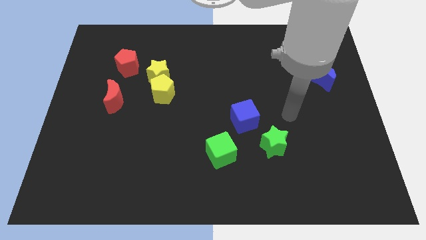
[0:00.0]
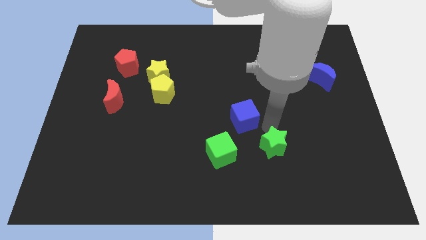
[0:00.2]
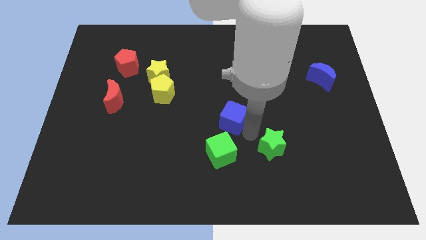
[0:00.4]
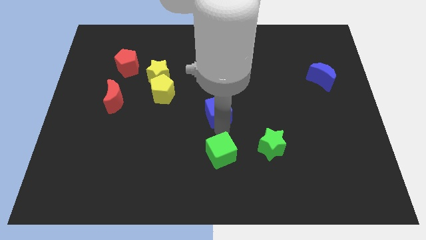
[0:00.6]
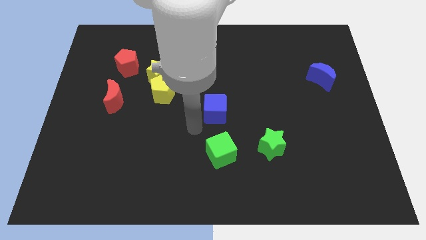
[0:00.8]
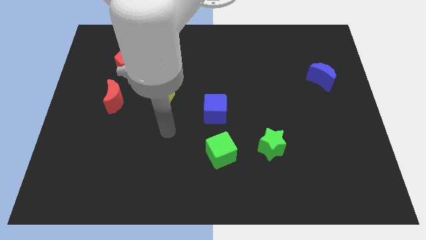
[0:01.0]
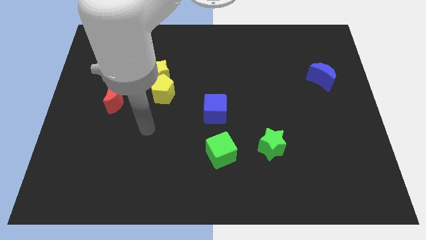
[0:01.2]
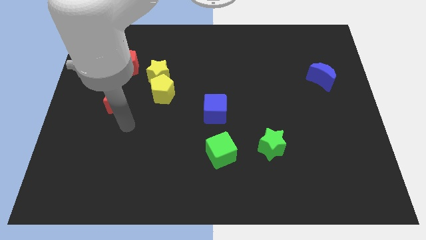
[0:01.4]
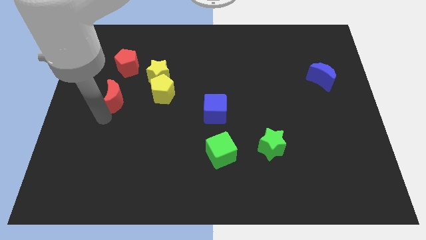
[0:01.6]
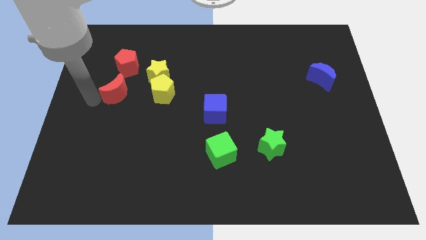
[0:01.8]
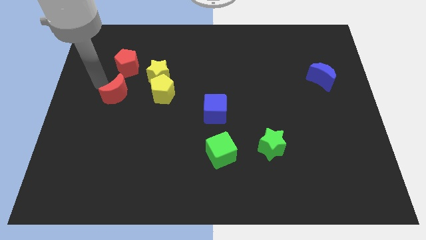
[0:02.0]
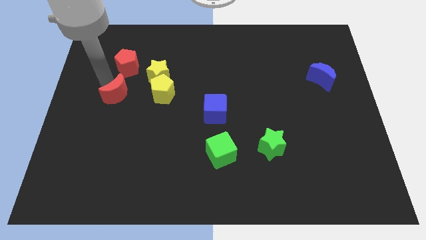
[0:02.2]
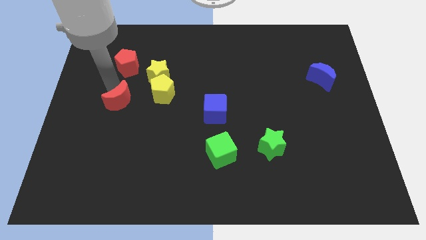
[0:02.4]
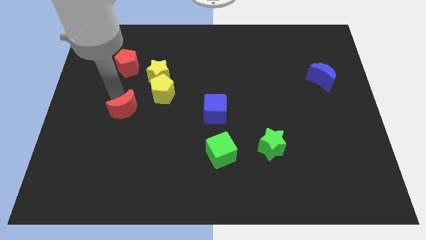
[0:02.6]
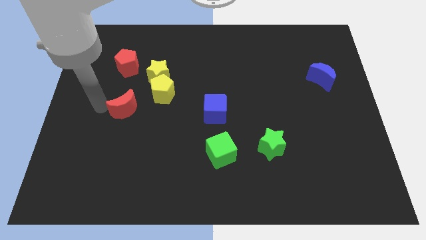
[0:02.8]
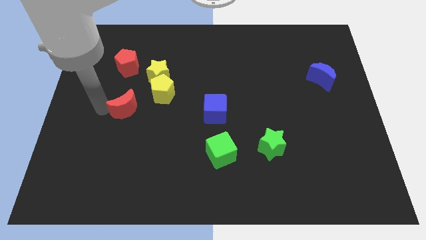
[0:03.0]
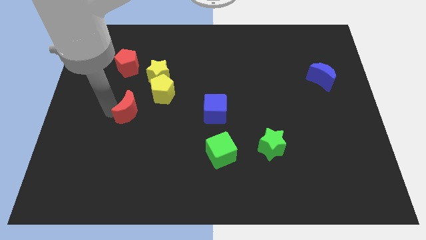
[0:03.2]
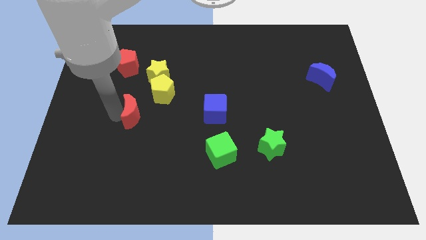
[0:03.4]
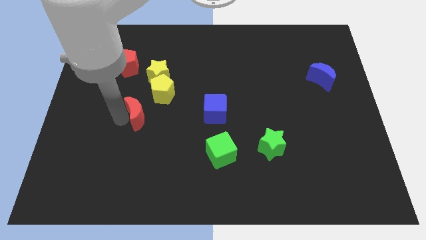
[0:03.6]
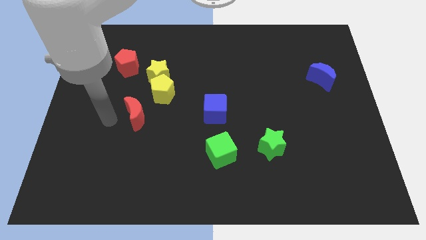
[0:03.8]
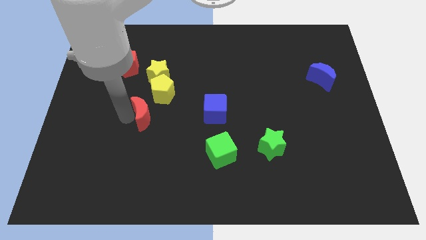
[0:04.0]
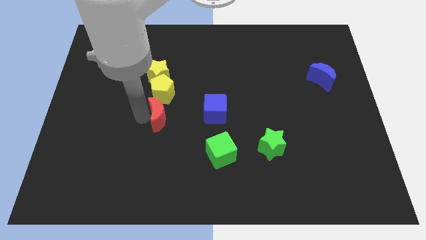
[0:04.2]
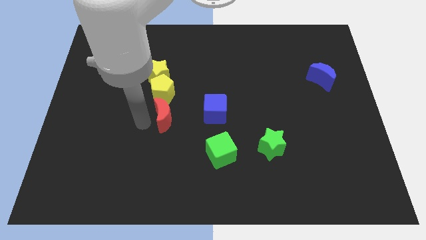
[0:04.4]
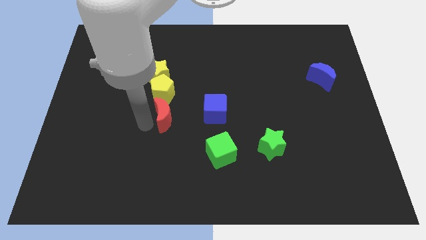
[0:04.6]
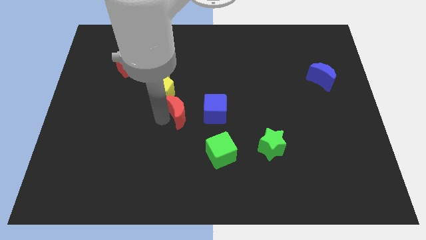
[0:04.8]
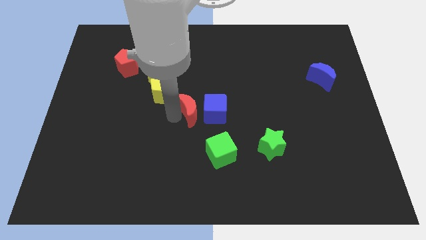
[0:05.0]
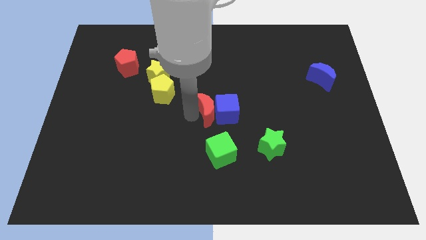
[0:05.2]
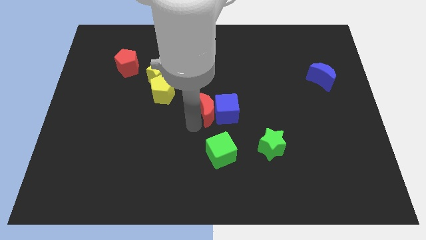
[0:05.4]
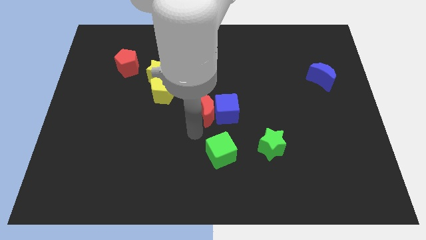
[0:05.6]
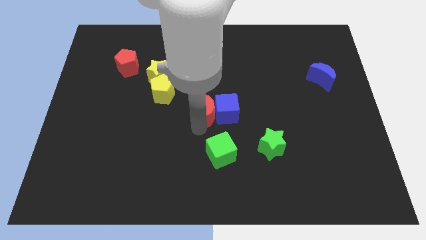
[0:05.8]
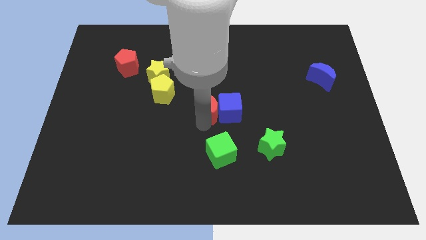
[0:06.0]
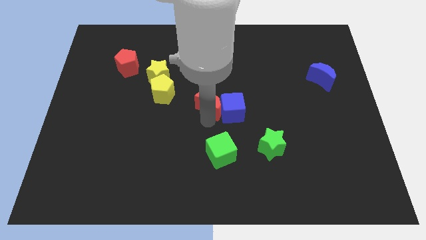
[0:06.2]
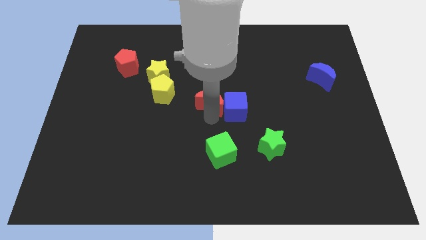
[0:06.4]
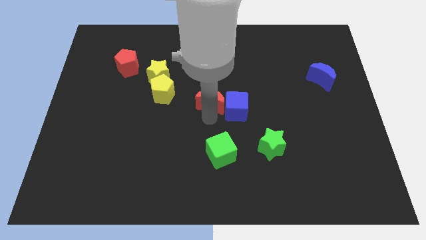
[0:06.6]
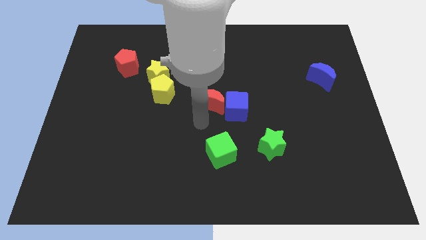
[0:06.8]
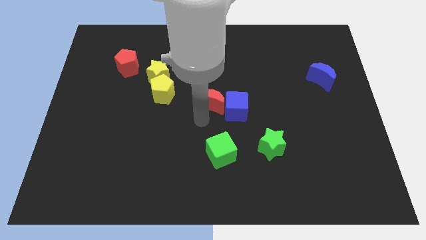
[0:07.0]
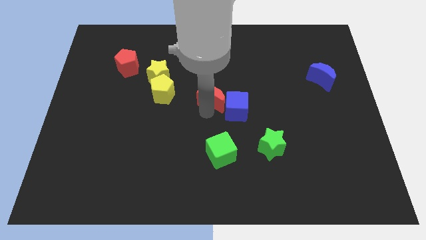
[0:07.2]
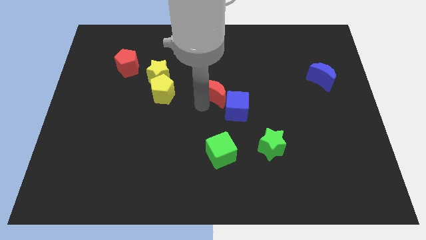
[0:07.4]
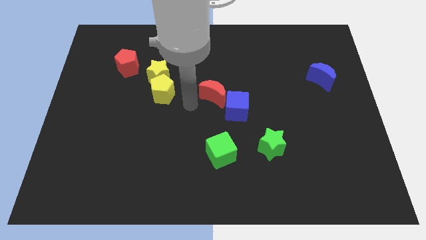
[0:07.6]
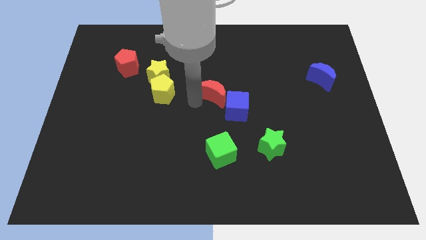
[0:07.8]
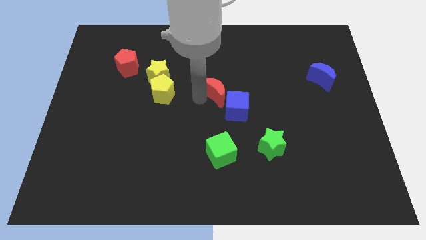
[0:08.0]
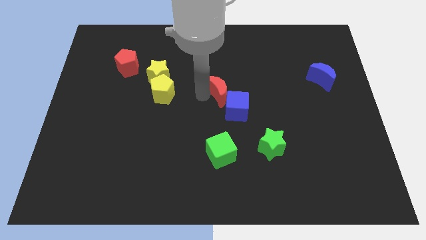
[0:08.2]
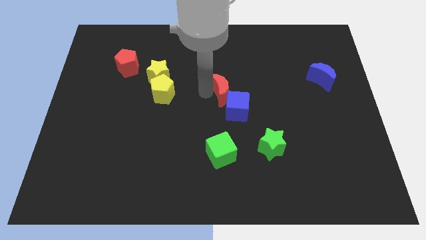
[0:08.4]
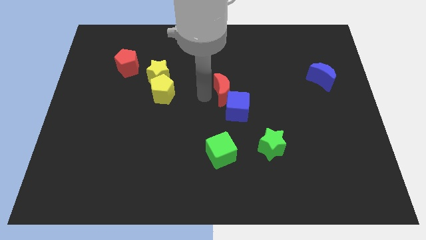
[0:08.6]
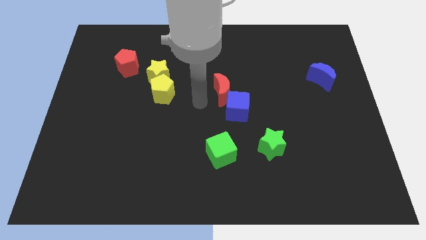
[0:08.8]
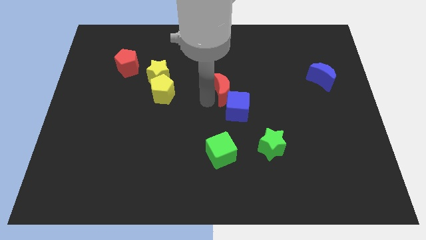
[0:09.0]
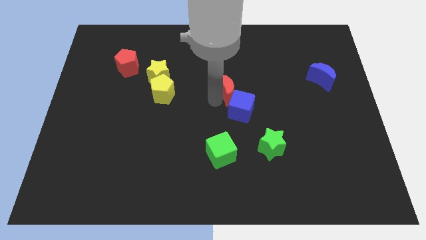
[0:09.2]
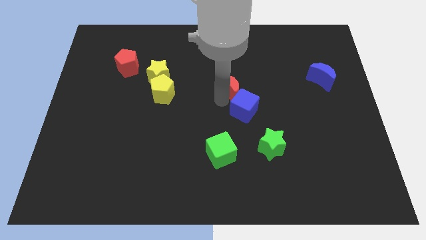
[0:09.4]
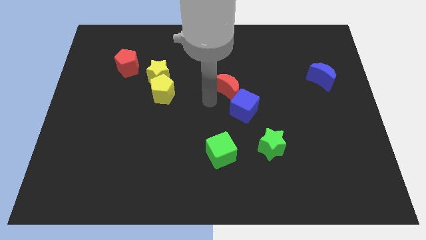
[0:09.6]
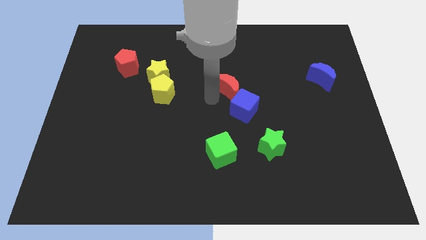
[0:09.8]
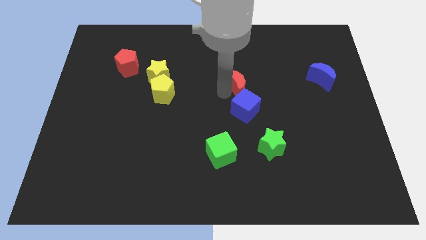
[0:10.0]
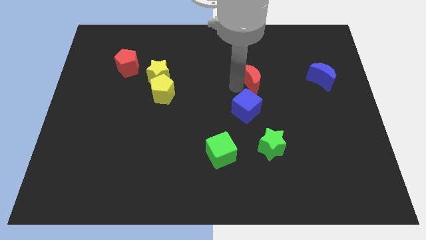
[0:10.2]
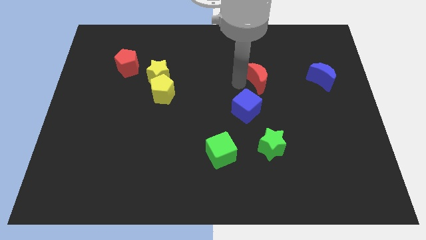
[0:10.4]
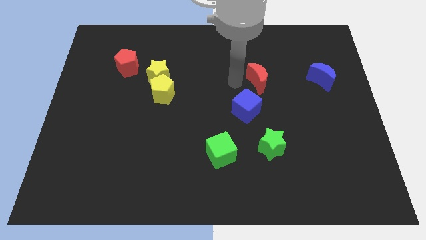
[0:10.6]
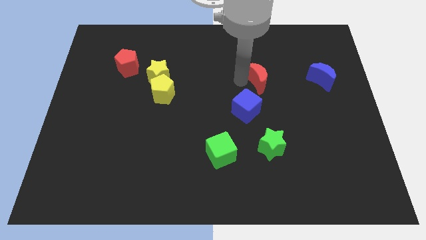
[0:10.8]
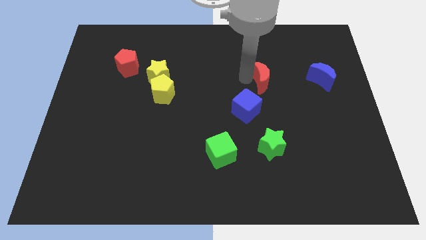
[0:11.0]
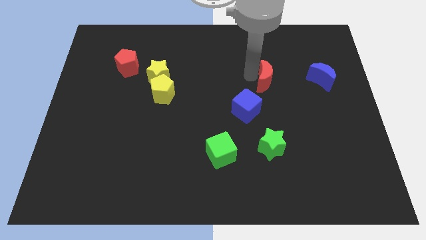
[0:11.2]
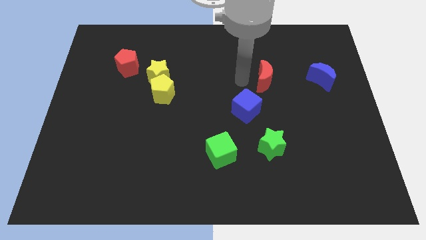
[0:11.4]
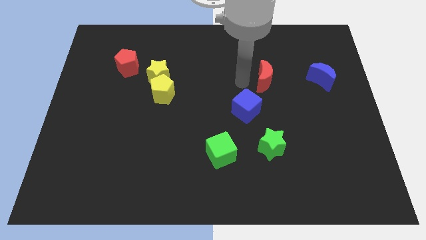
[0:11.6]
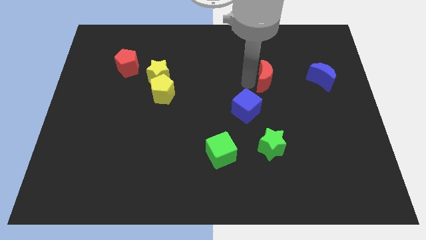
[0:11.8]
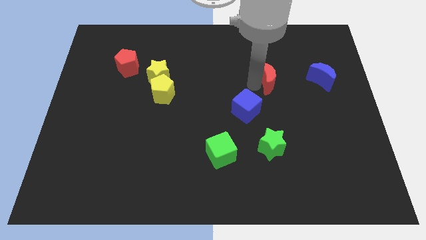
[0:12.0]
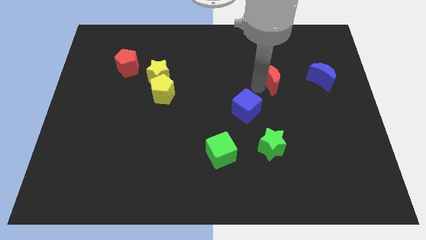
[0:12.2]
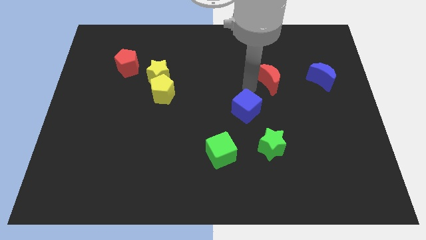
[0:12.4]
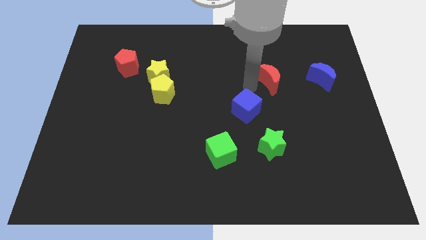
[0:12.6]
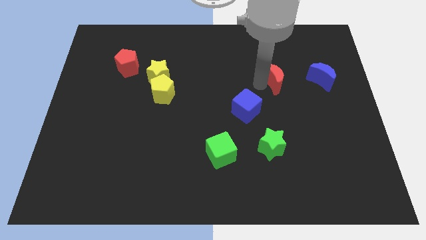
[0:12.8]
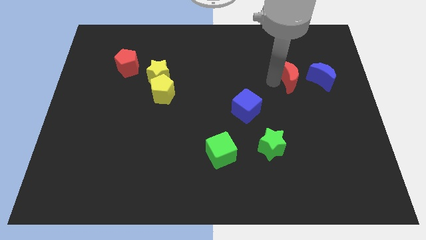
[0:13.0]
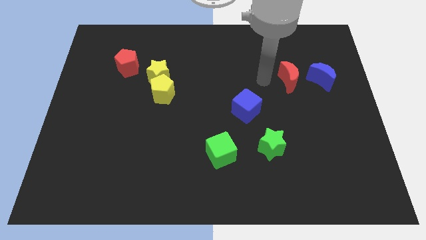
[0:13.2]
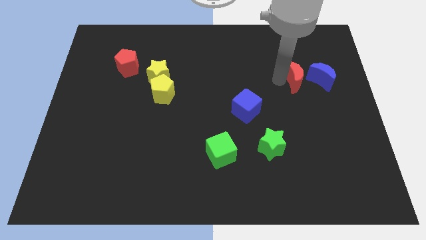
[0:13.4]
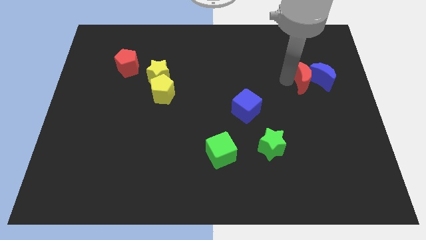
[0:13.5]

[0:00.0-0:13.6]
push the red moon close to the blue moon

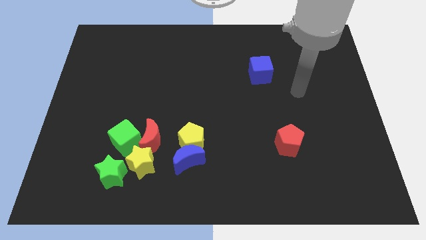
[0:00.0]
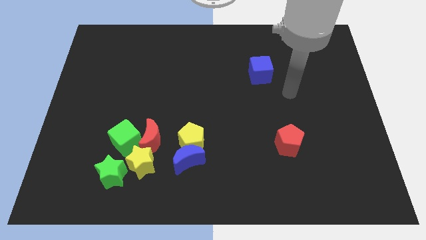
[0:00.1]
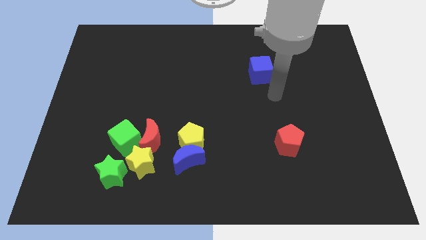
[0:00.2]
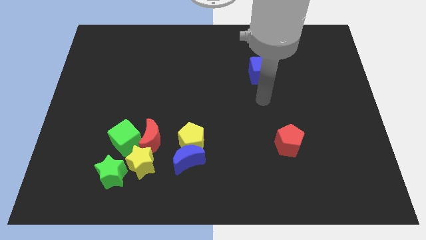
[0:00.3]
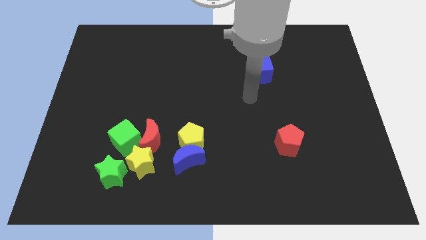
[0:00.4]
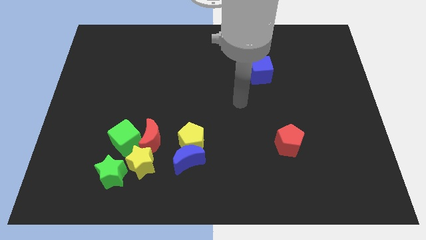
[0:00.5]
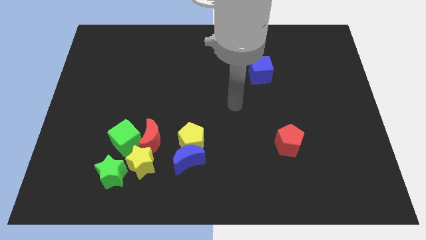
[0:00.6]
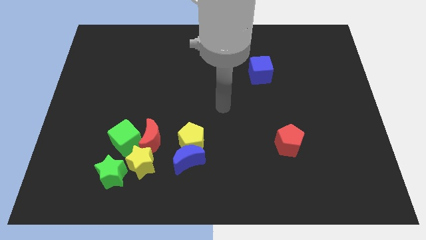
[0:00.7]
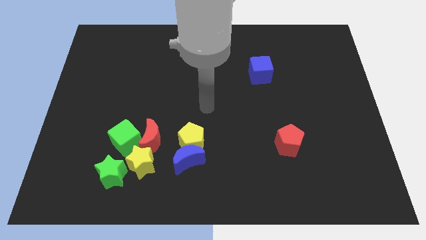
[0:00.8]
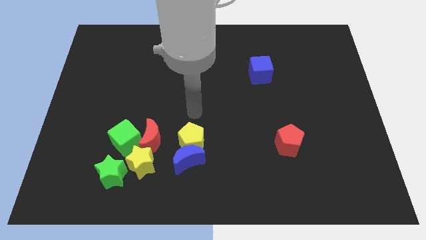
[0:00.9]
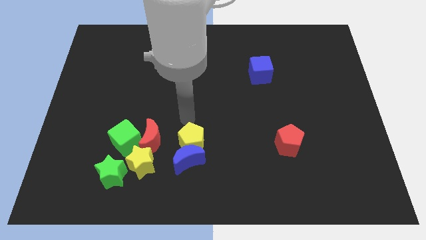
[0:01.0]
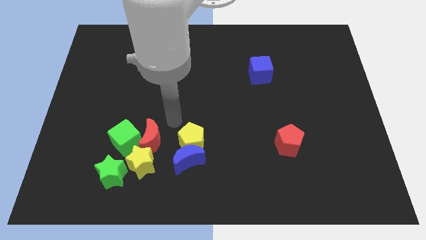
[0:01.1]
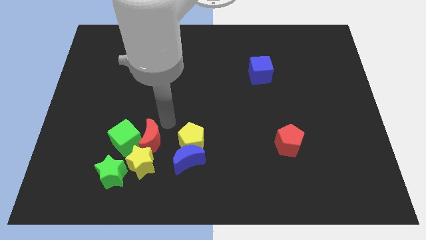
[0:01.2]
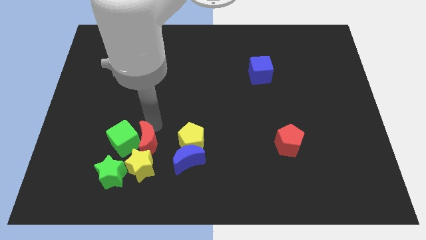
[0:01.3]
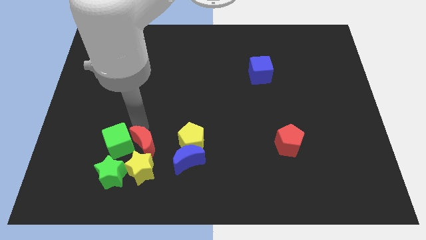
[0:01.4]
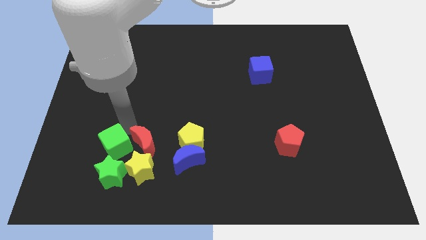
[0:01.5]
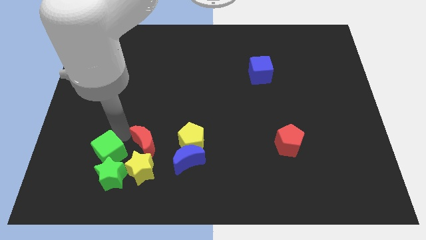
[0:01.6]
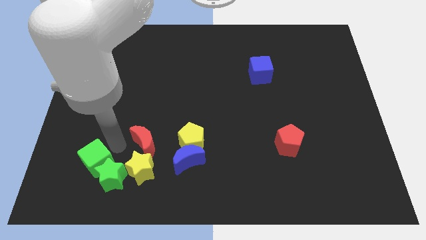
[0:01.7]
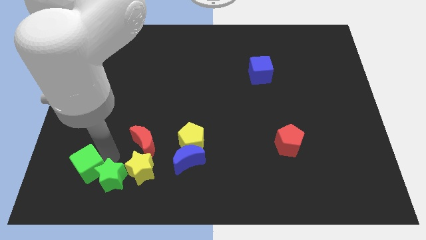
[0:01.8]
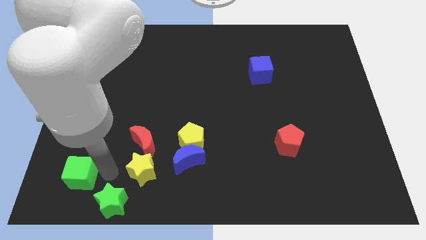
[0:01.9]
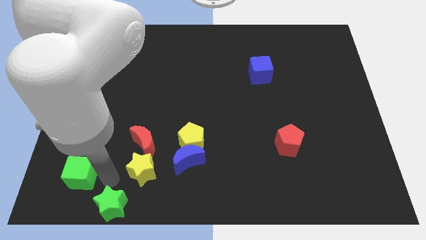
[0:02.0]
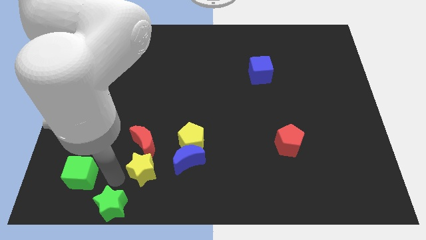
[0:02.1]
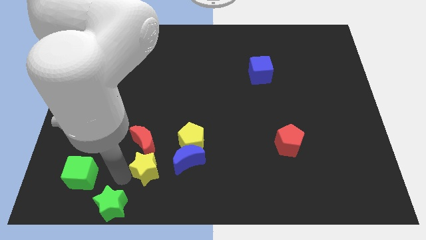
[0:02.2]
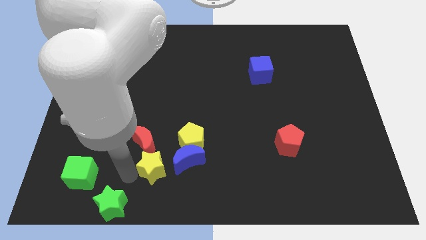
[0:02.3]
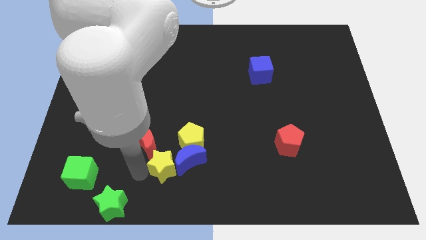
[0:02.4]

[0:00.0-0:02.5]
put the yellow star close to the blue moon
